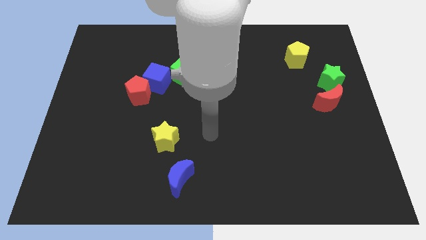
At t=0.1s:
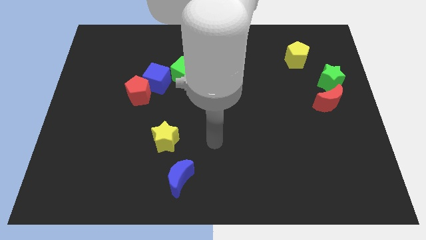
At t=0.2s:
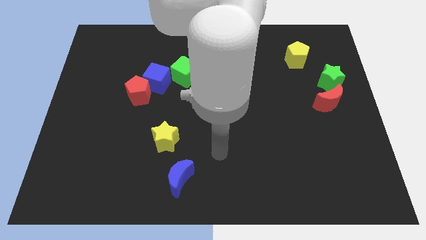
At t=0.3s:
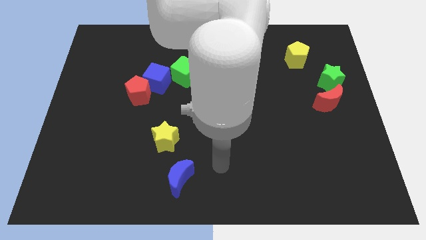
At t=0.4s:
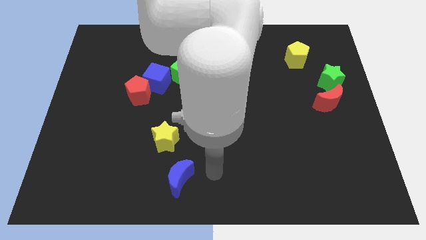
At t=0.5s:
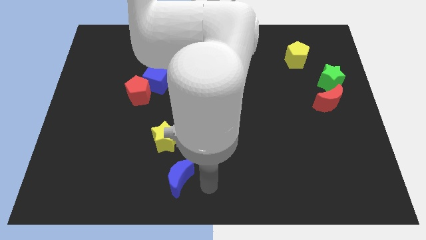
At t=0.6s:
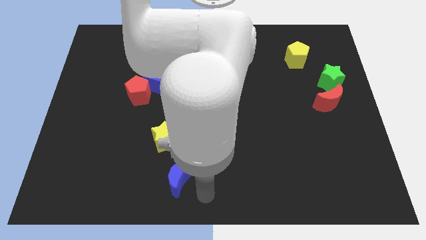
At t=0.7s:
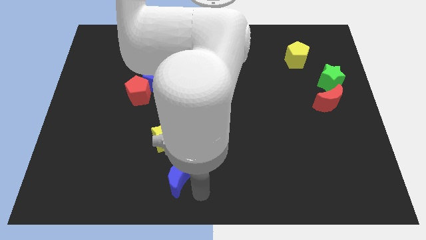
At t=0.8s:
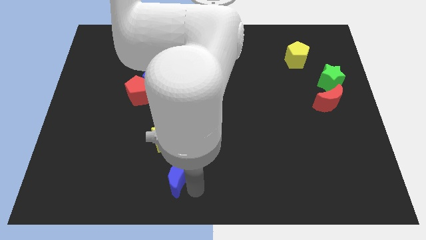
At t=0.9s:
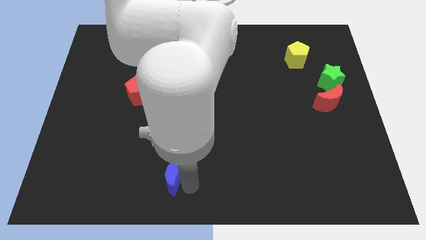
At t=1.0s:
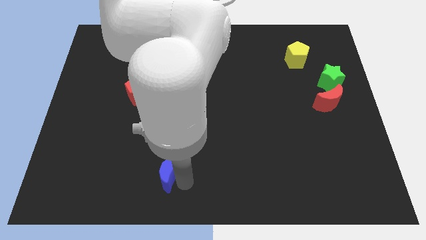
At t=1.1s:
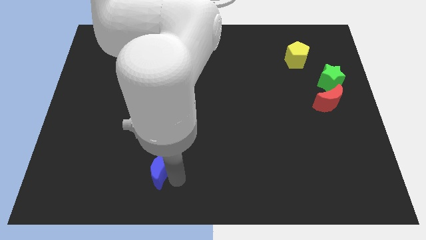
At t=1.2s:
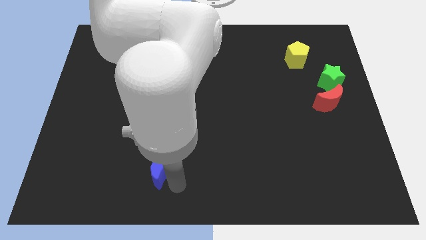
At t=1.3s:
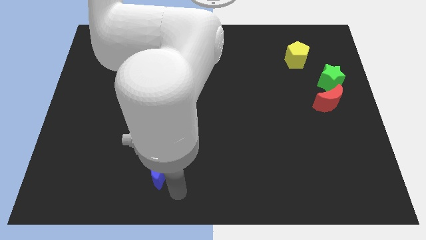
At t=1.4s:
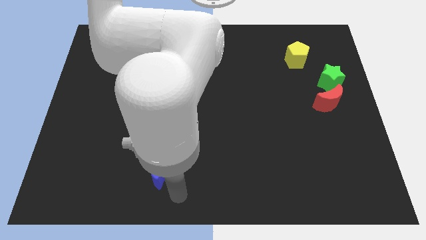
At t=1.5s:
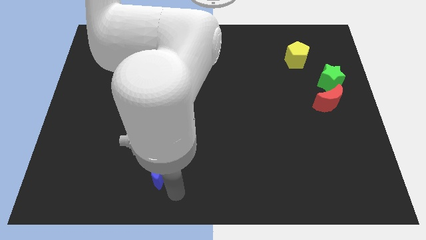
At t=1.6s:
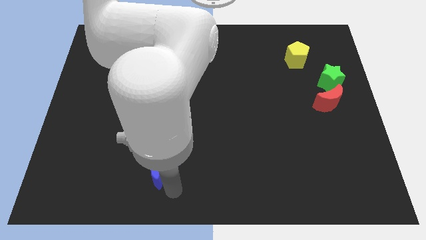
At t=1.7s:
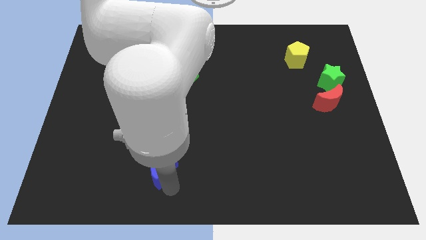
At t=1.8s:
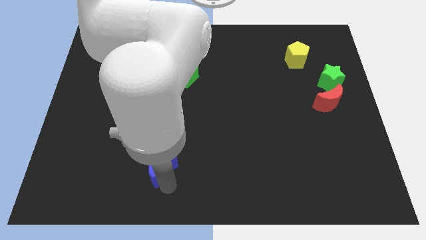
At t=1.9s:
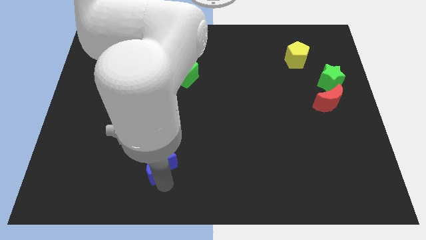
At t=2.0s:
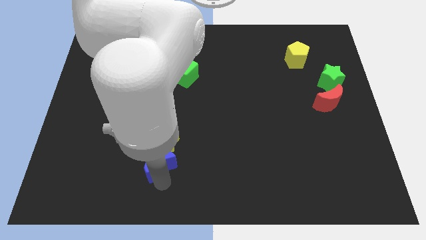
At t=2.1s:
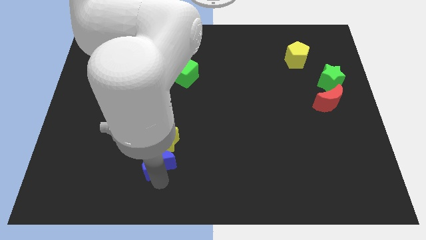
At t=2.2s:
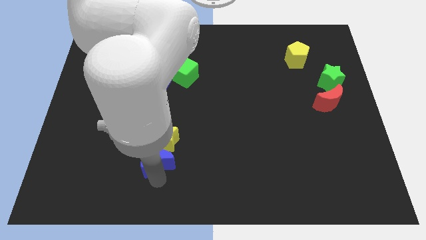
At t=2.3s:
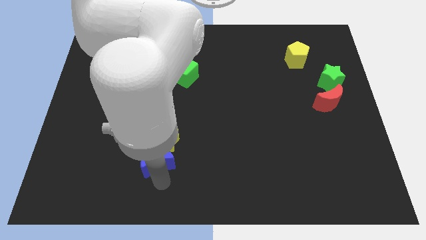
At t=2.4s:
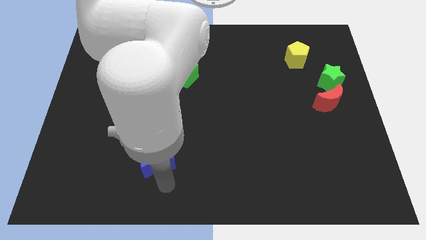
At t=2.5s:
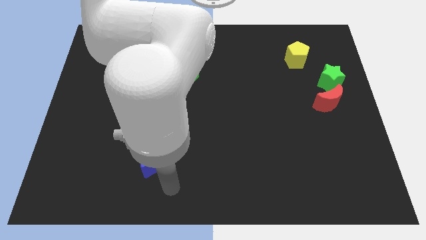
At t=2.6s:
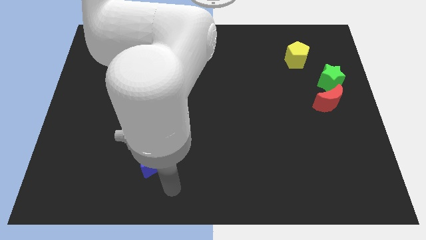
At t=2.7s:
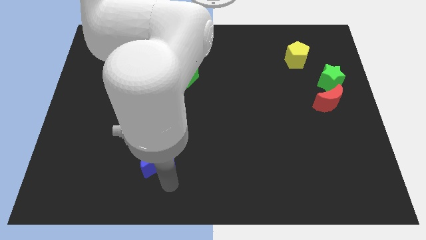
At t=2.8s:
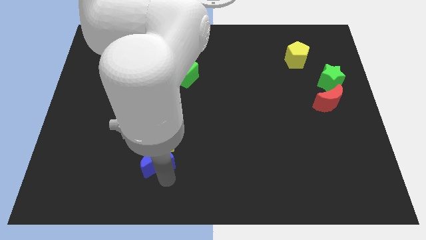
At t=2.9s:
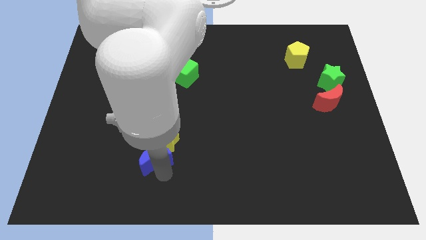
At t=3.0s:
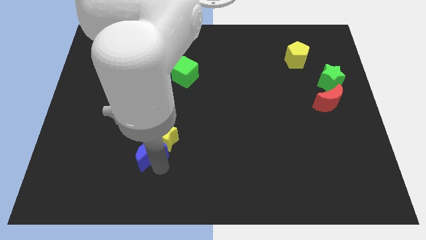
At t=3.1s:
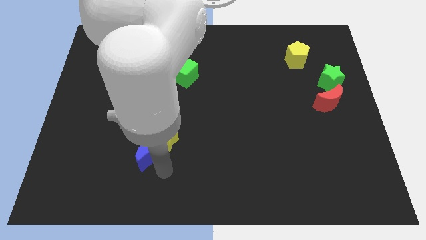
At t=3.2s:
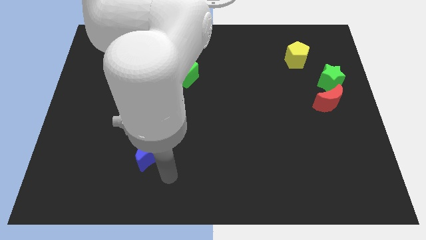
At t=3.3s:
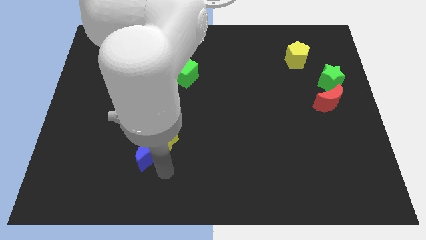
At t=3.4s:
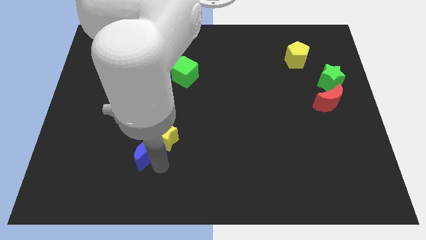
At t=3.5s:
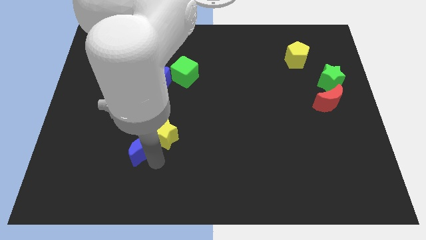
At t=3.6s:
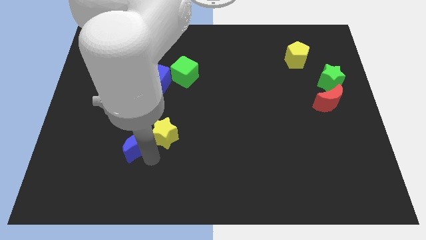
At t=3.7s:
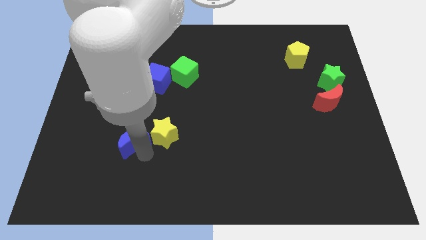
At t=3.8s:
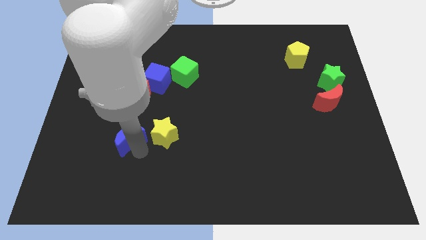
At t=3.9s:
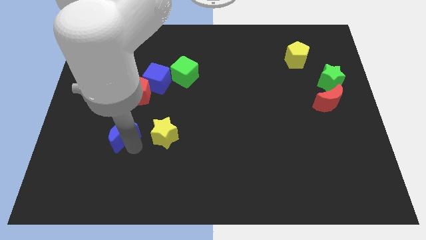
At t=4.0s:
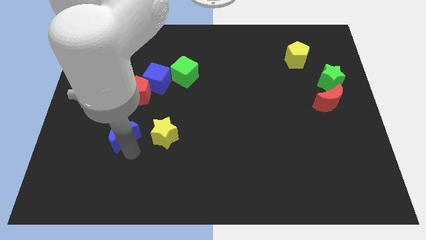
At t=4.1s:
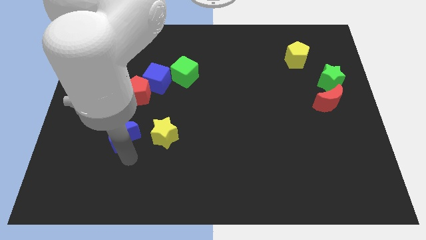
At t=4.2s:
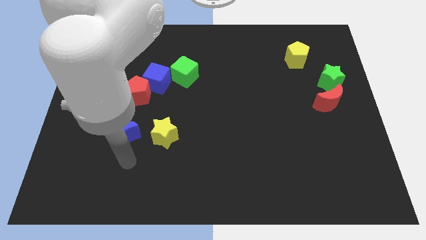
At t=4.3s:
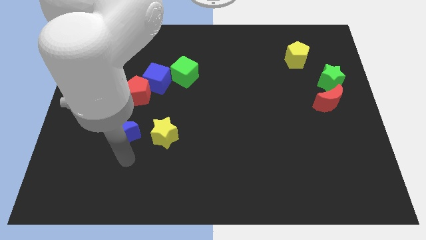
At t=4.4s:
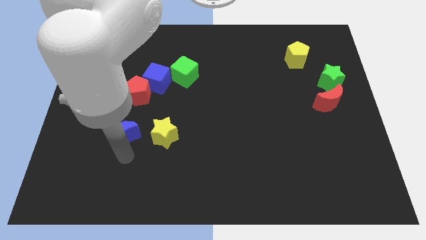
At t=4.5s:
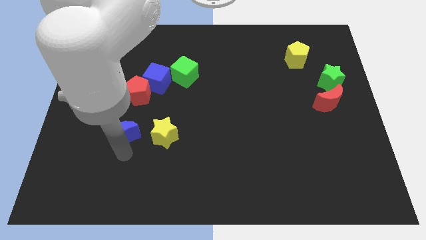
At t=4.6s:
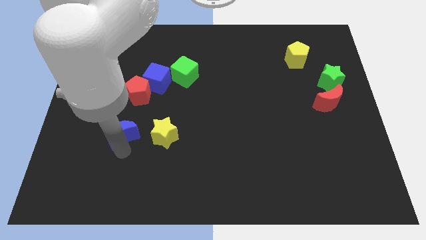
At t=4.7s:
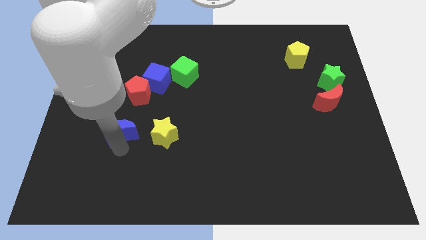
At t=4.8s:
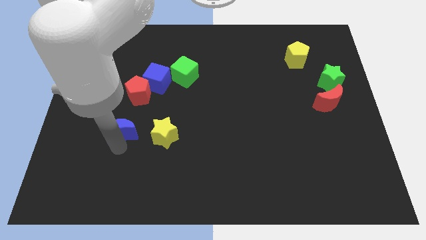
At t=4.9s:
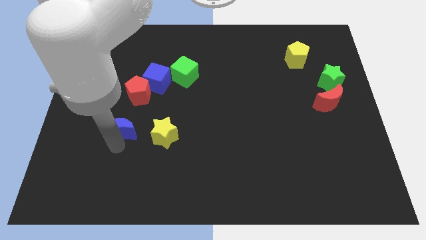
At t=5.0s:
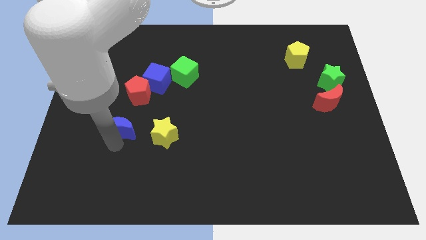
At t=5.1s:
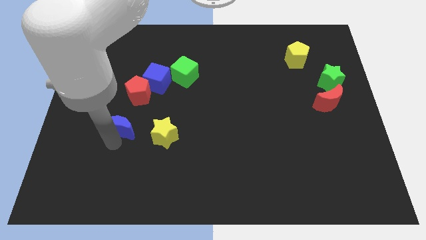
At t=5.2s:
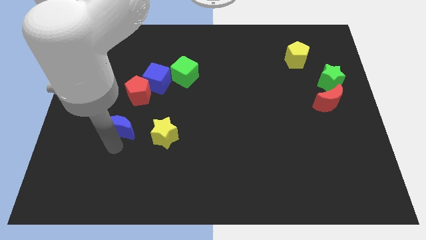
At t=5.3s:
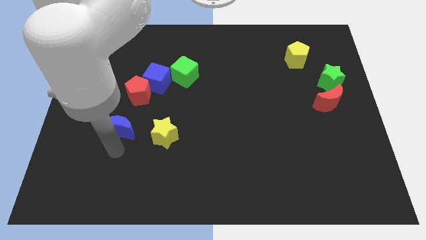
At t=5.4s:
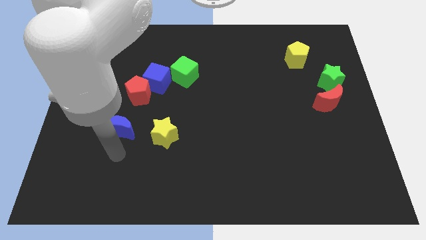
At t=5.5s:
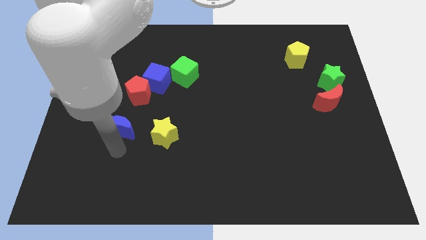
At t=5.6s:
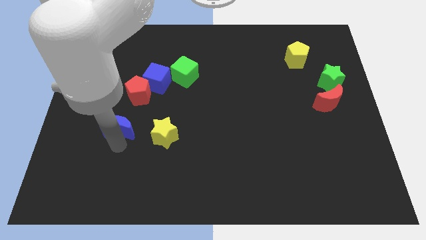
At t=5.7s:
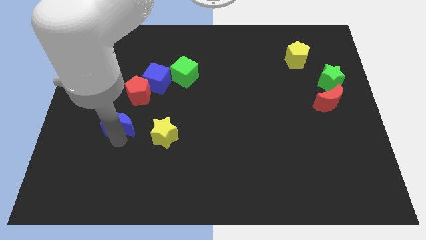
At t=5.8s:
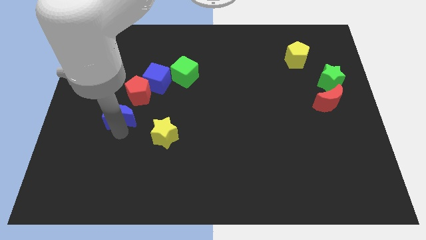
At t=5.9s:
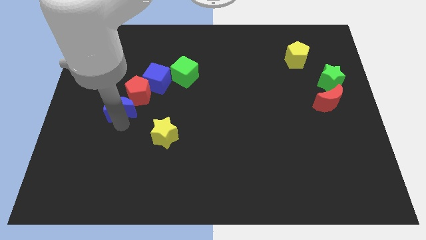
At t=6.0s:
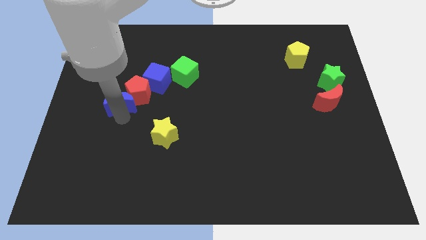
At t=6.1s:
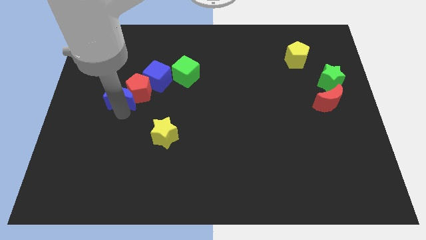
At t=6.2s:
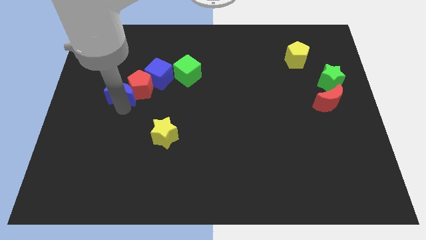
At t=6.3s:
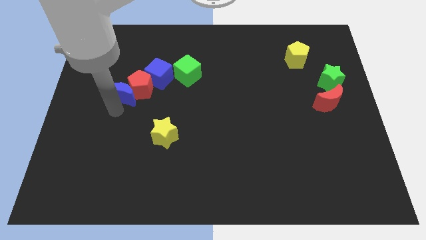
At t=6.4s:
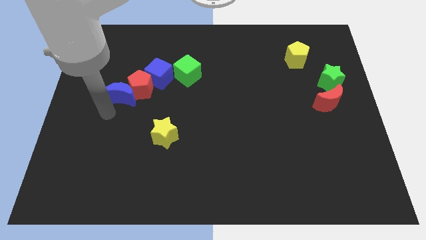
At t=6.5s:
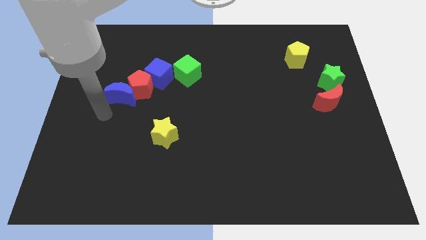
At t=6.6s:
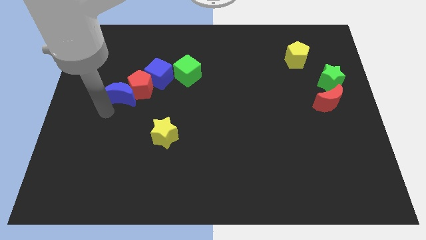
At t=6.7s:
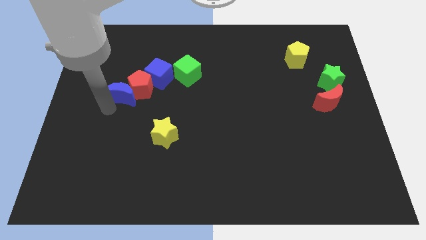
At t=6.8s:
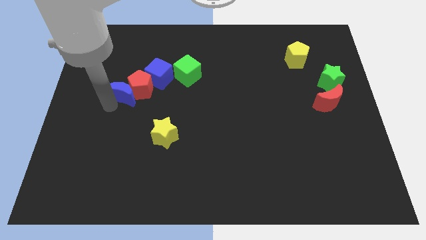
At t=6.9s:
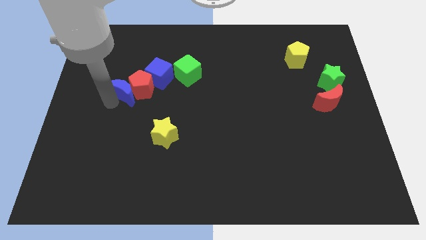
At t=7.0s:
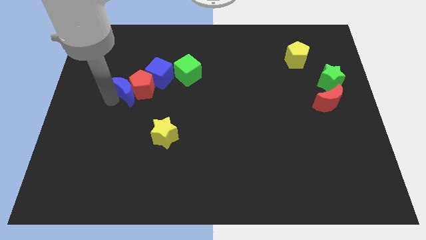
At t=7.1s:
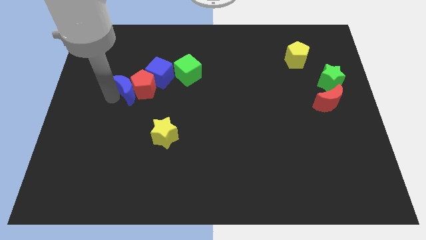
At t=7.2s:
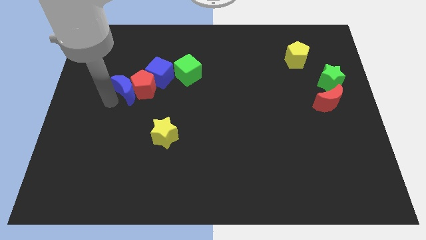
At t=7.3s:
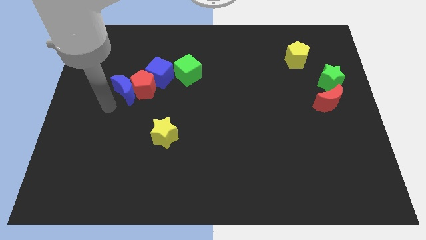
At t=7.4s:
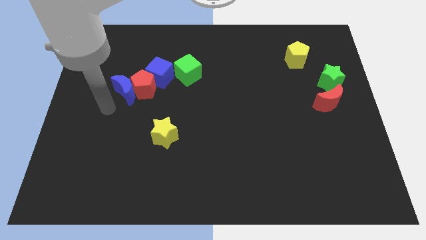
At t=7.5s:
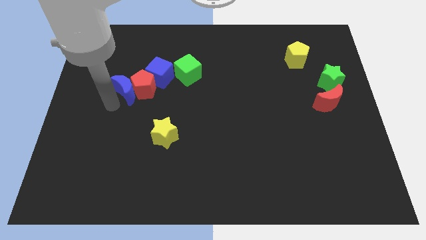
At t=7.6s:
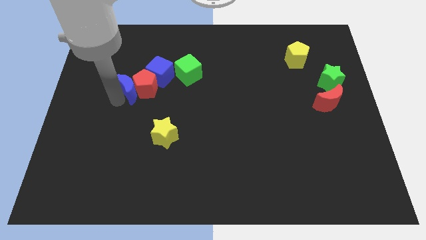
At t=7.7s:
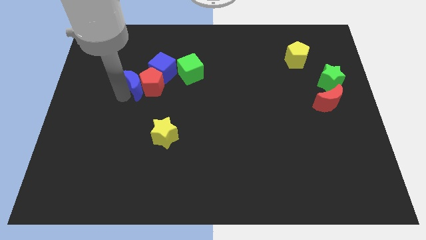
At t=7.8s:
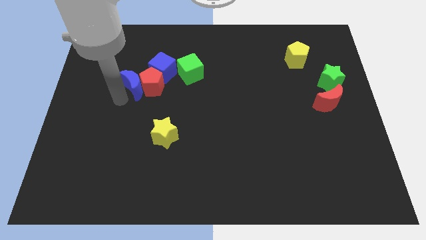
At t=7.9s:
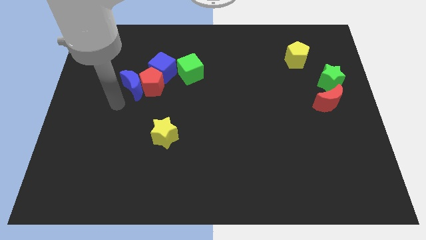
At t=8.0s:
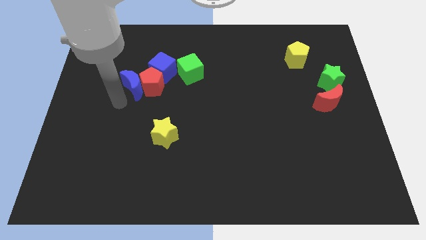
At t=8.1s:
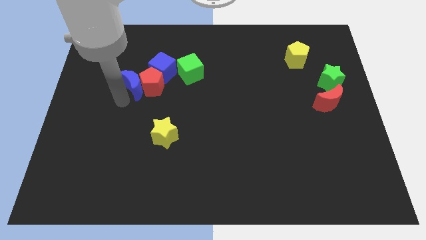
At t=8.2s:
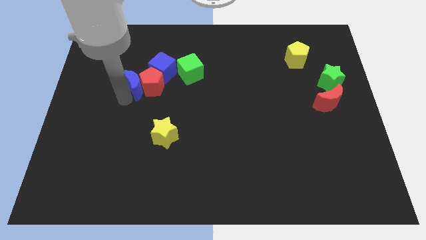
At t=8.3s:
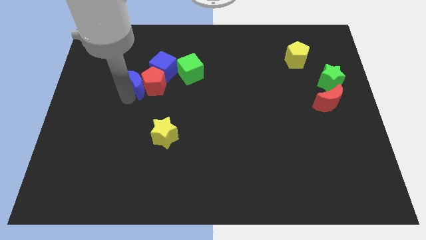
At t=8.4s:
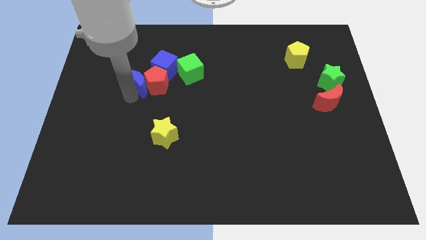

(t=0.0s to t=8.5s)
push the blue moon just left of the green cube
